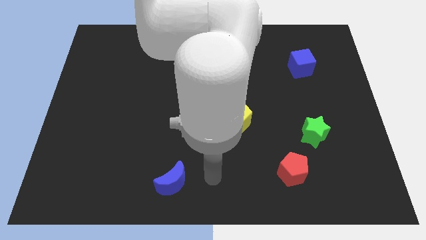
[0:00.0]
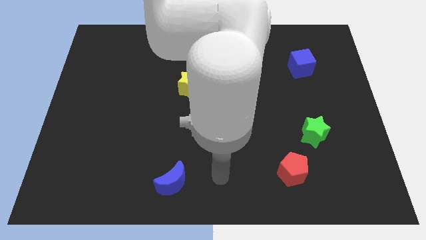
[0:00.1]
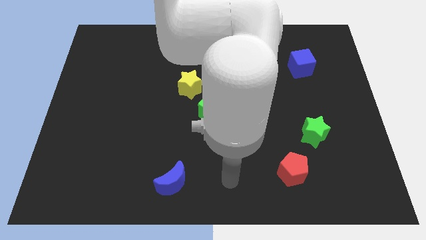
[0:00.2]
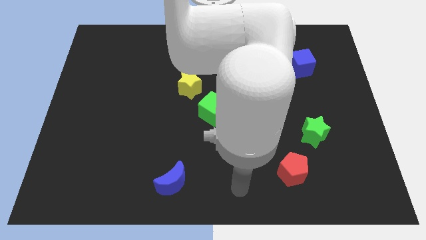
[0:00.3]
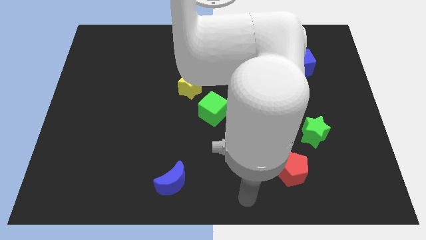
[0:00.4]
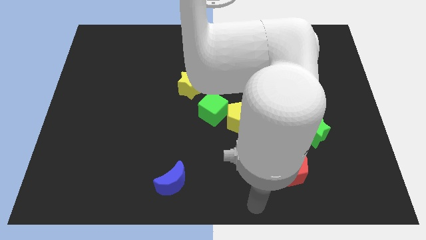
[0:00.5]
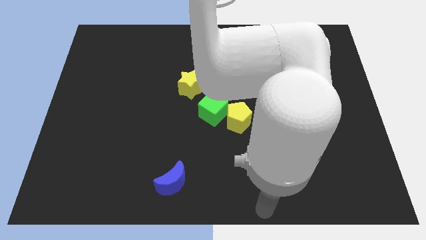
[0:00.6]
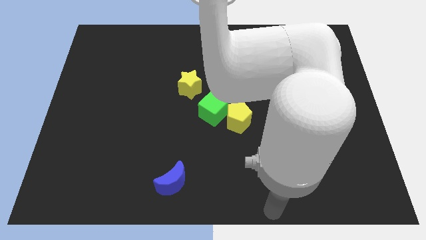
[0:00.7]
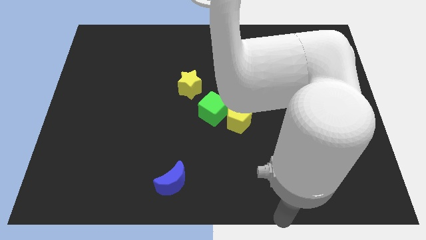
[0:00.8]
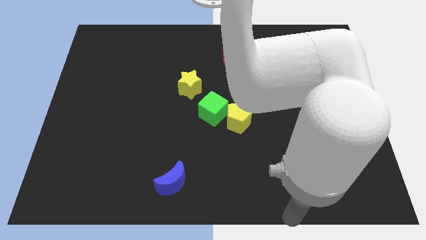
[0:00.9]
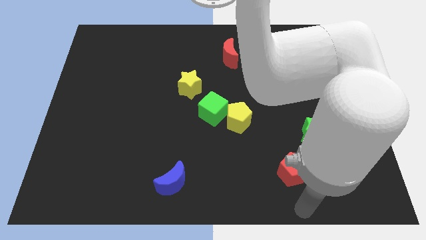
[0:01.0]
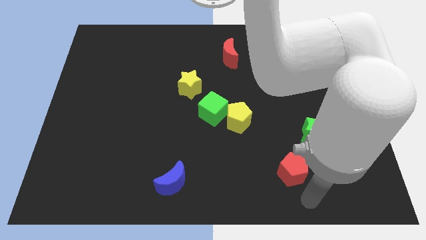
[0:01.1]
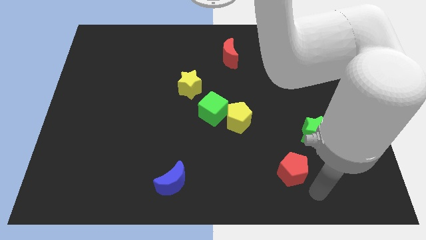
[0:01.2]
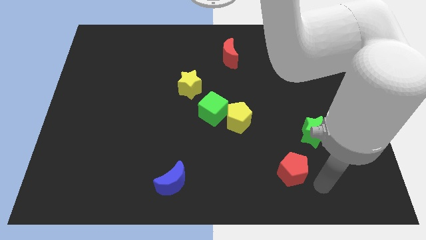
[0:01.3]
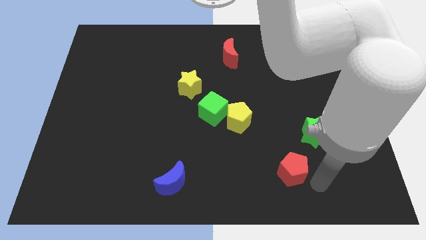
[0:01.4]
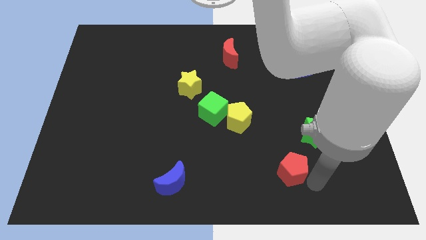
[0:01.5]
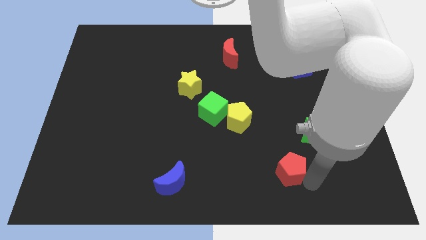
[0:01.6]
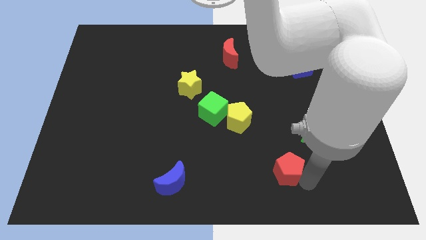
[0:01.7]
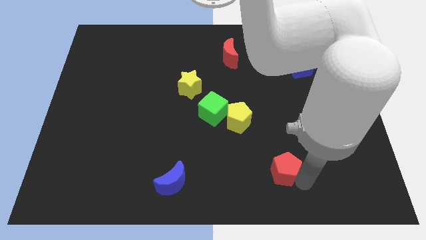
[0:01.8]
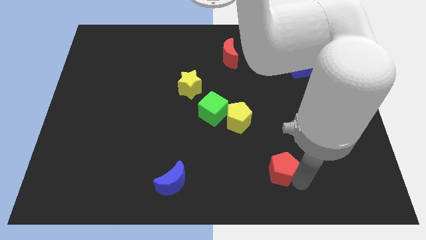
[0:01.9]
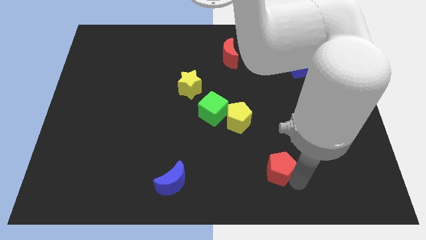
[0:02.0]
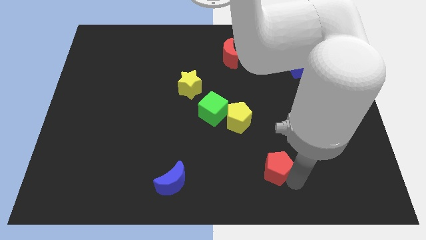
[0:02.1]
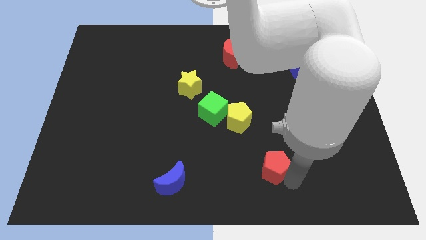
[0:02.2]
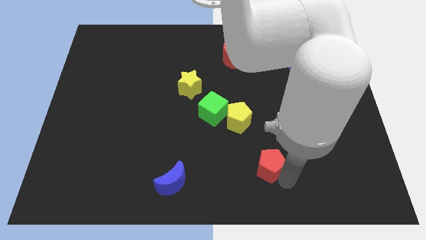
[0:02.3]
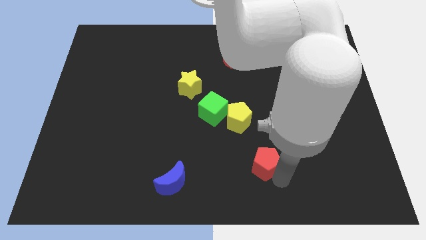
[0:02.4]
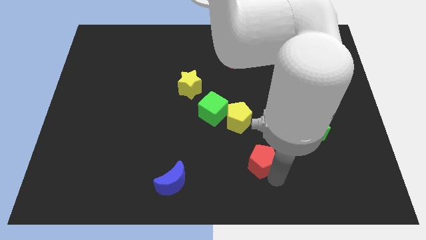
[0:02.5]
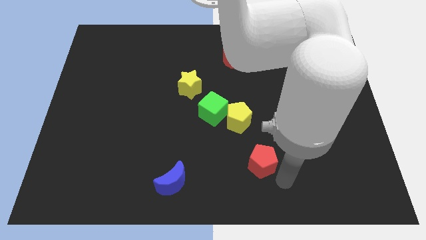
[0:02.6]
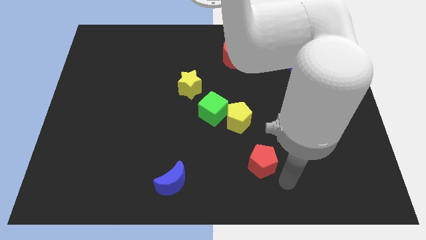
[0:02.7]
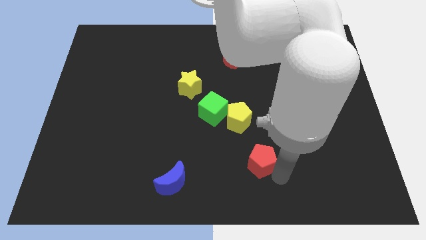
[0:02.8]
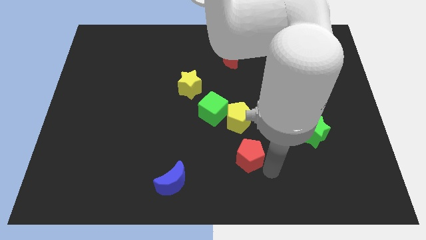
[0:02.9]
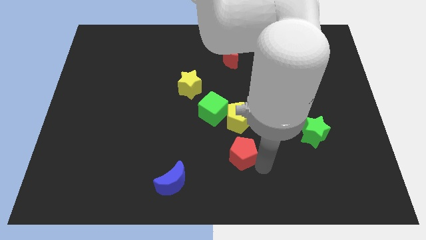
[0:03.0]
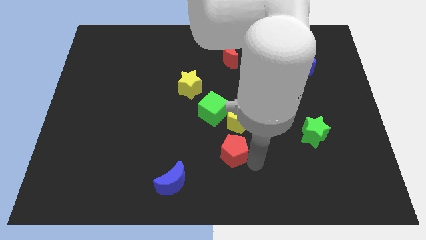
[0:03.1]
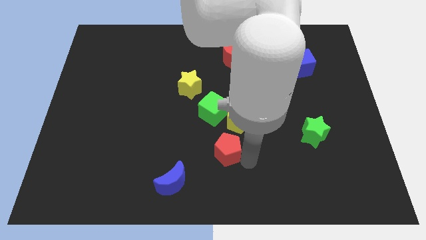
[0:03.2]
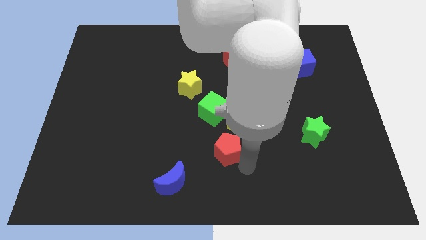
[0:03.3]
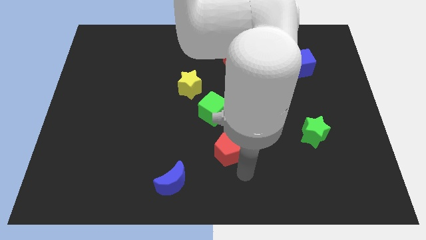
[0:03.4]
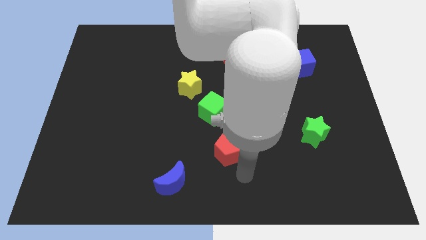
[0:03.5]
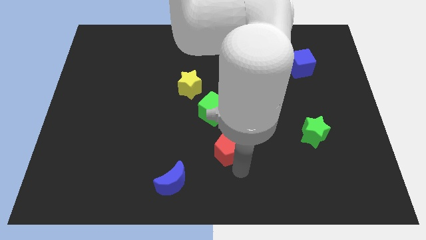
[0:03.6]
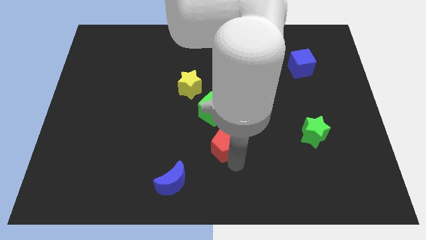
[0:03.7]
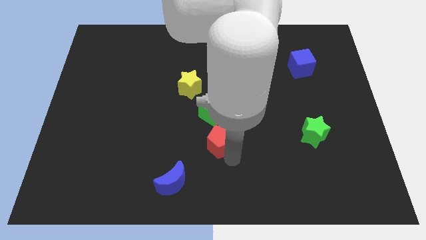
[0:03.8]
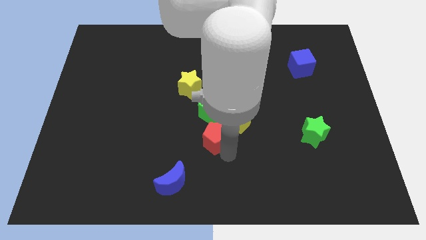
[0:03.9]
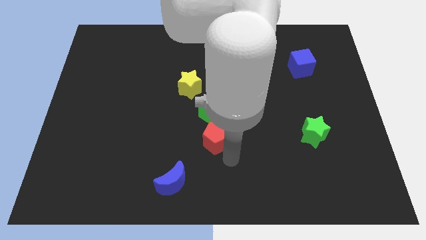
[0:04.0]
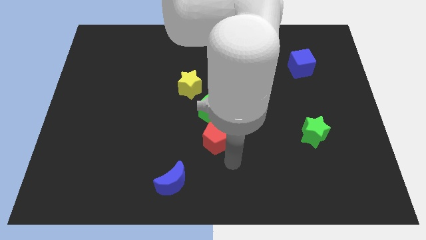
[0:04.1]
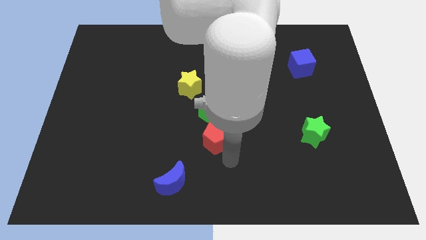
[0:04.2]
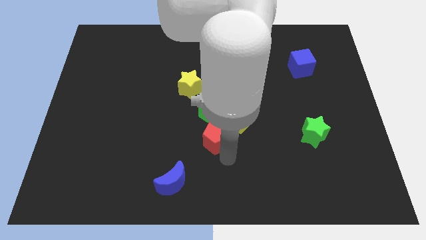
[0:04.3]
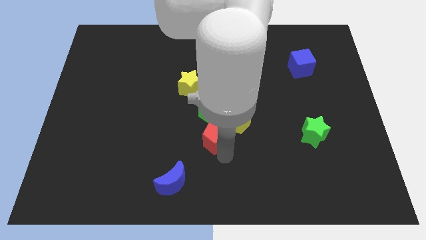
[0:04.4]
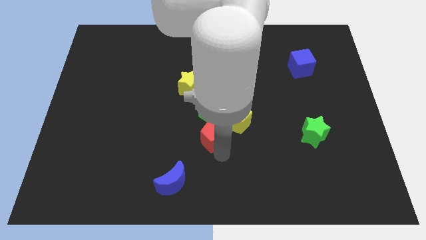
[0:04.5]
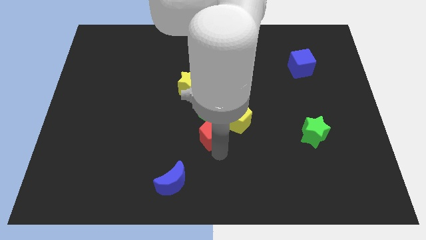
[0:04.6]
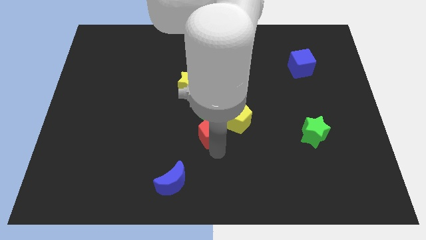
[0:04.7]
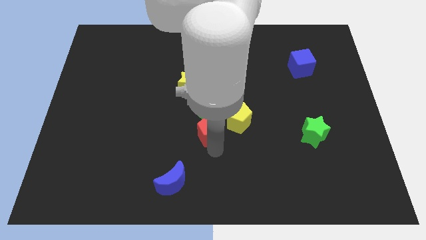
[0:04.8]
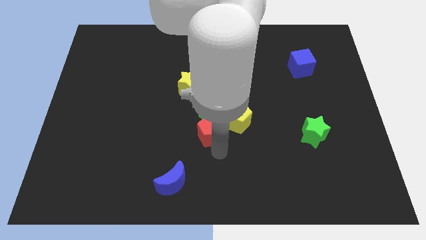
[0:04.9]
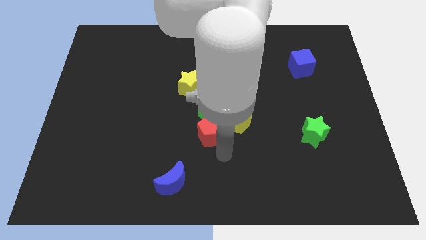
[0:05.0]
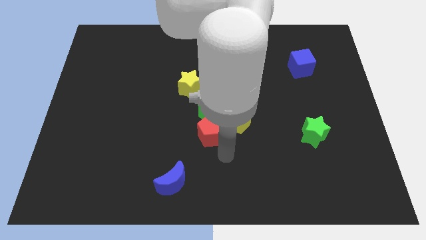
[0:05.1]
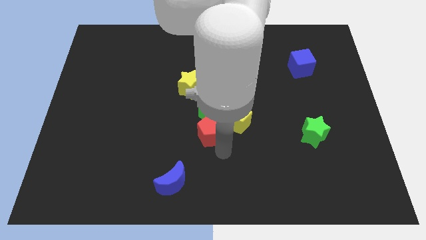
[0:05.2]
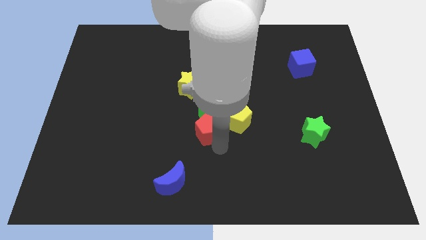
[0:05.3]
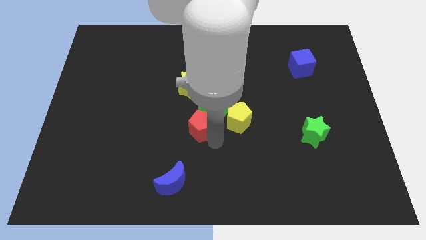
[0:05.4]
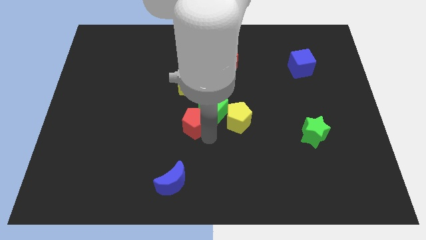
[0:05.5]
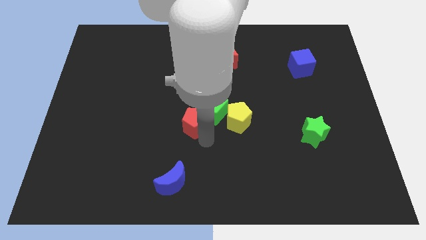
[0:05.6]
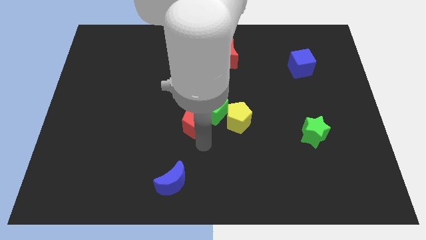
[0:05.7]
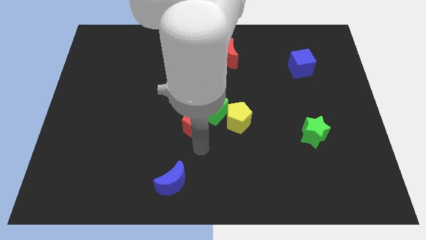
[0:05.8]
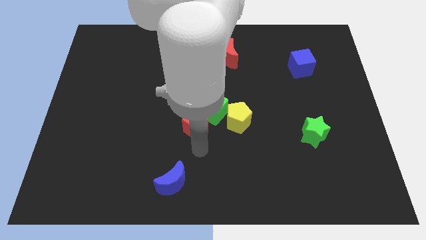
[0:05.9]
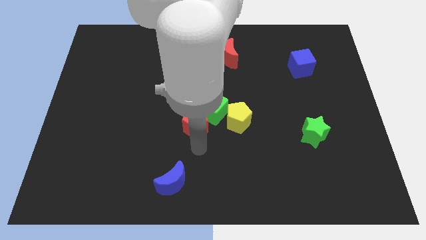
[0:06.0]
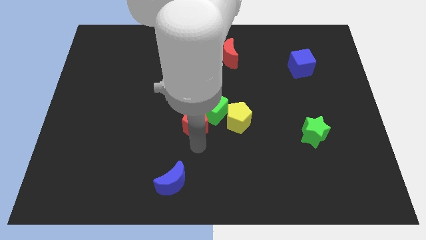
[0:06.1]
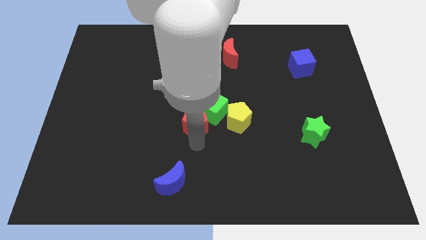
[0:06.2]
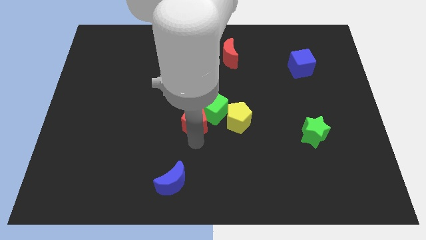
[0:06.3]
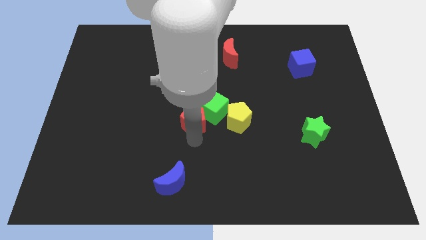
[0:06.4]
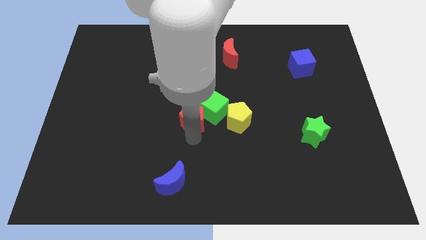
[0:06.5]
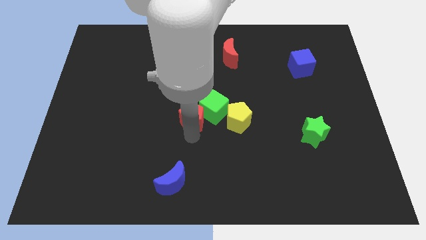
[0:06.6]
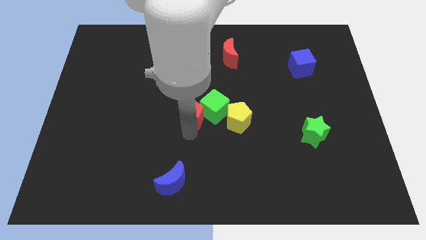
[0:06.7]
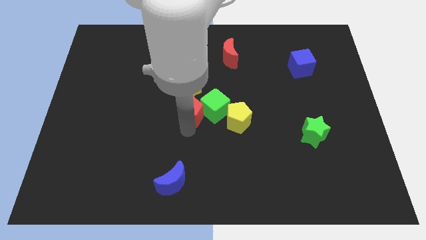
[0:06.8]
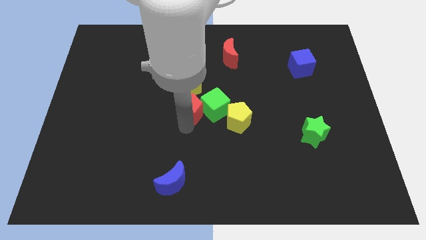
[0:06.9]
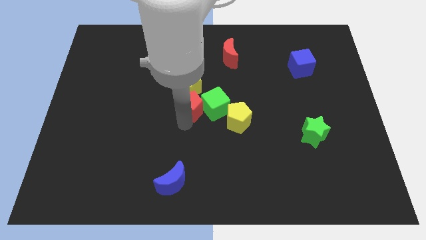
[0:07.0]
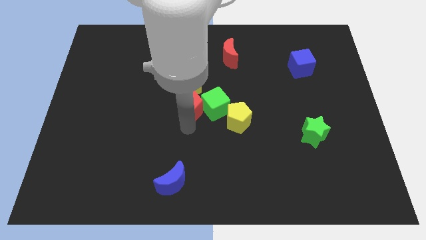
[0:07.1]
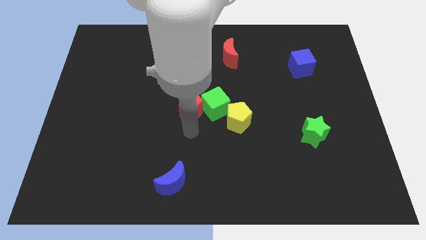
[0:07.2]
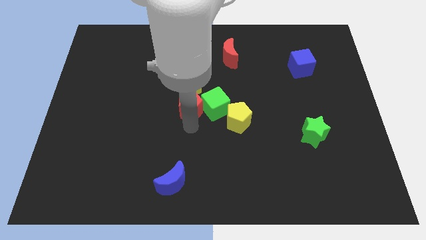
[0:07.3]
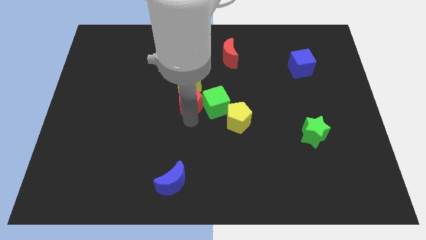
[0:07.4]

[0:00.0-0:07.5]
push the red pentagon towards the yellow star
